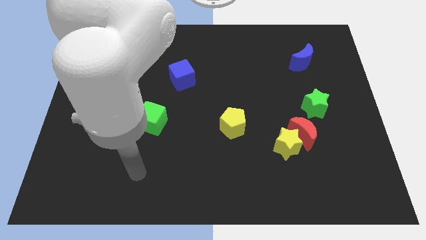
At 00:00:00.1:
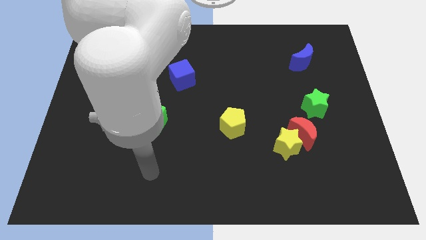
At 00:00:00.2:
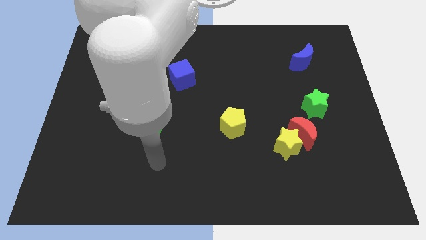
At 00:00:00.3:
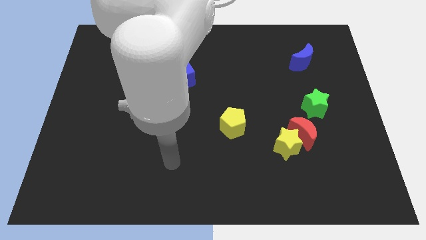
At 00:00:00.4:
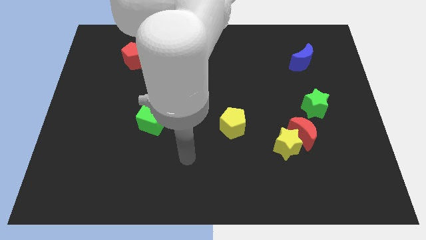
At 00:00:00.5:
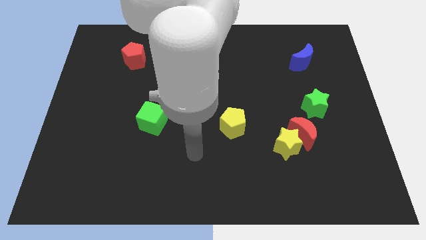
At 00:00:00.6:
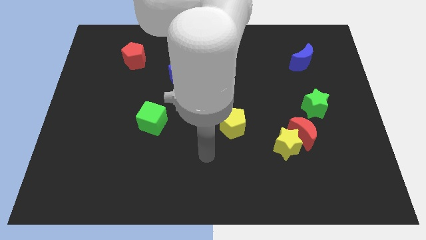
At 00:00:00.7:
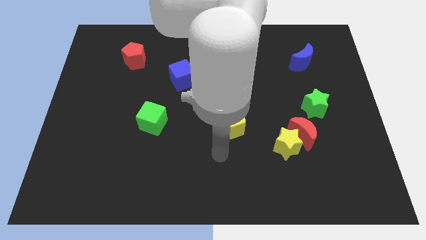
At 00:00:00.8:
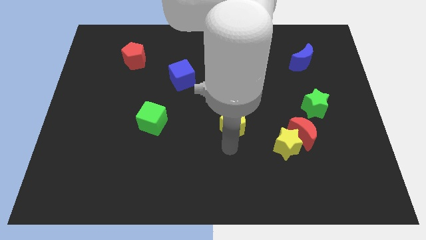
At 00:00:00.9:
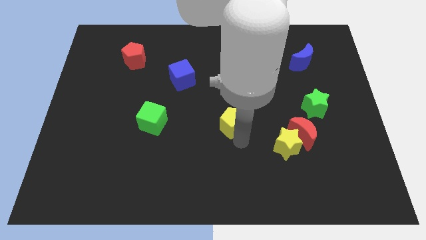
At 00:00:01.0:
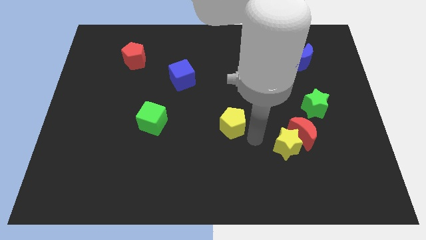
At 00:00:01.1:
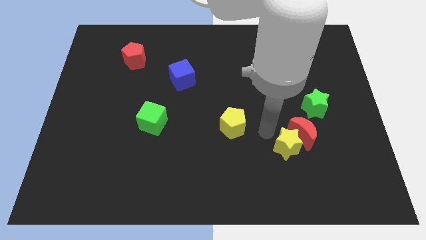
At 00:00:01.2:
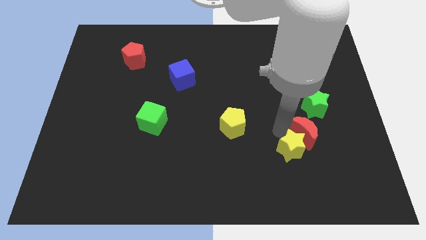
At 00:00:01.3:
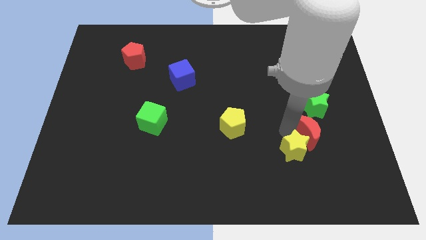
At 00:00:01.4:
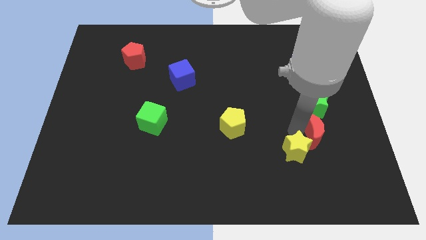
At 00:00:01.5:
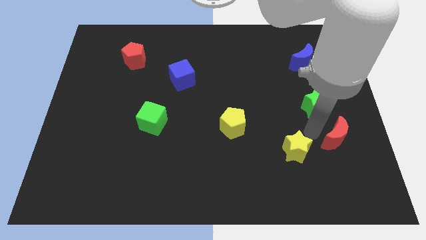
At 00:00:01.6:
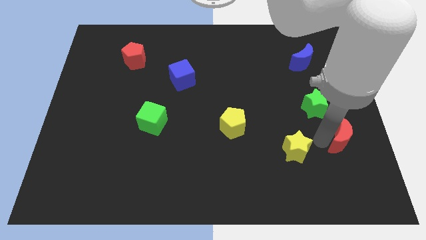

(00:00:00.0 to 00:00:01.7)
separate the yellow star from the red moon

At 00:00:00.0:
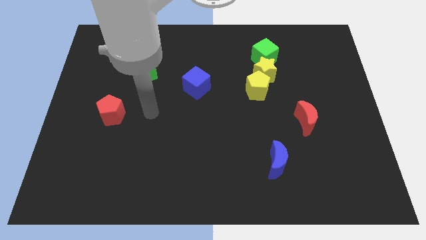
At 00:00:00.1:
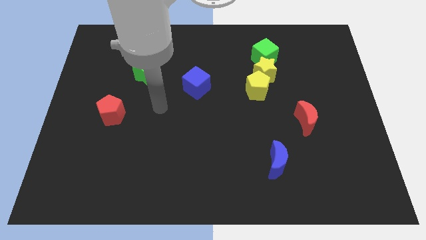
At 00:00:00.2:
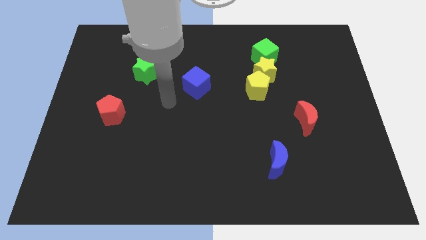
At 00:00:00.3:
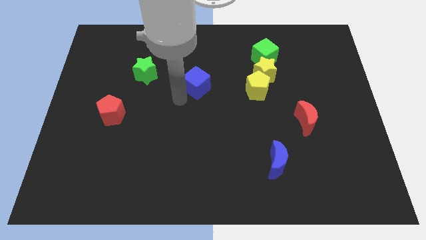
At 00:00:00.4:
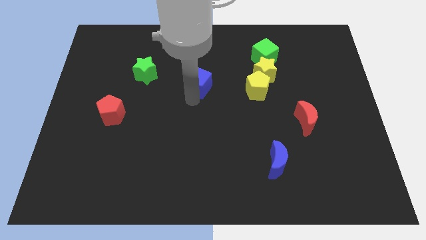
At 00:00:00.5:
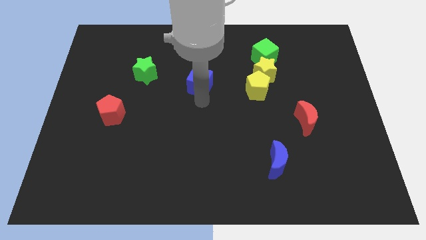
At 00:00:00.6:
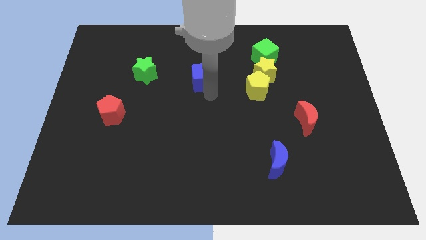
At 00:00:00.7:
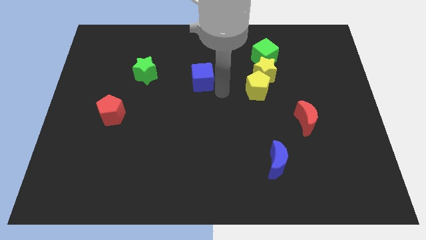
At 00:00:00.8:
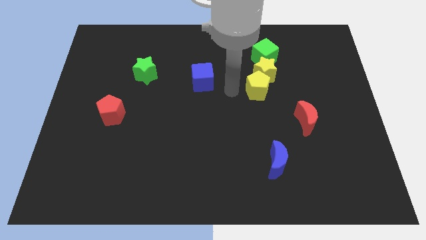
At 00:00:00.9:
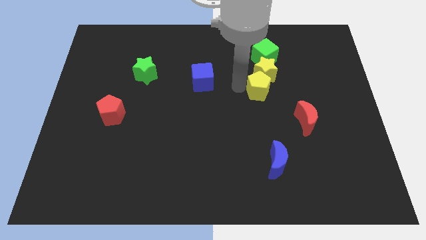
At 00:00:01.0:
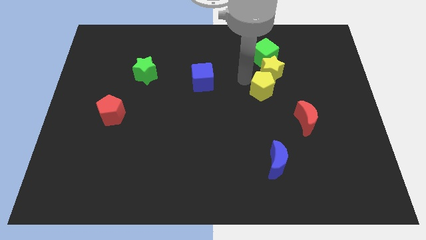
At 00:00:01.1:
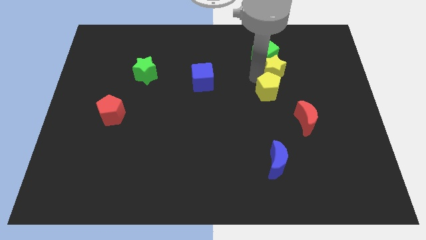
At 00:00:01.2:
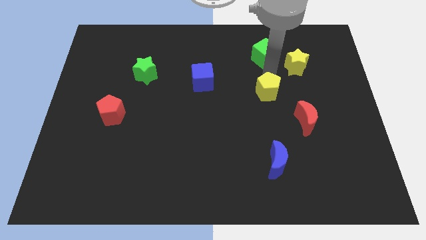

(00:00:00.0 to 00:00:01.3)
move the yellow pentagon away from the yellow star

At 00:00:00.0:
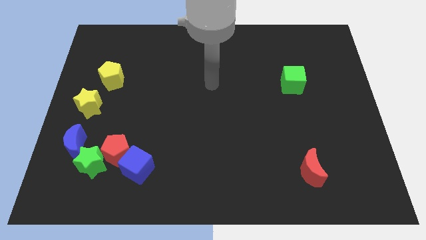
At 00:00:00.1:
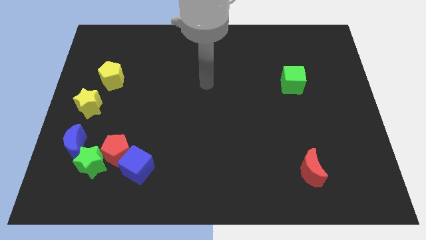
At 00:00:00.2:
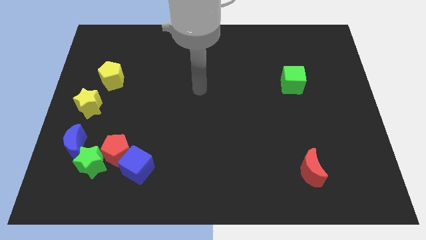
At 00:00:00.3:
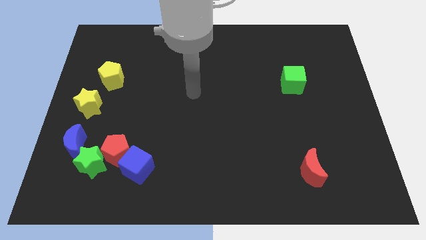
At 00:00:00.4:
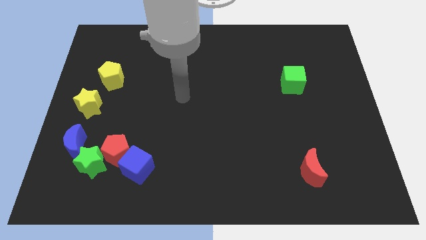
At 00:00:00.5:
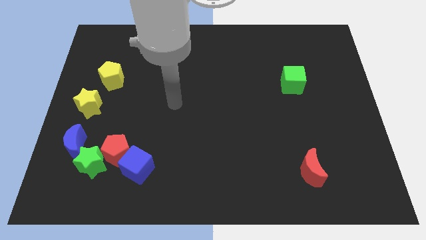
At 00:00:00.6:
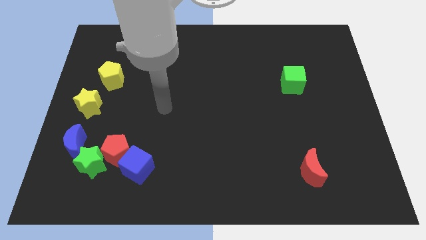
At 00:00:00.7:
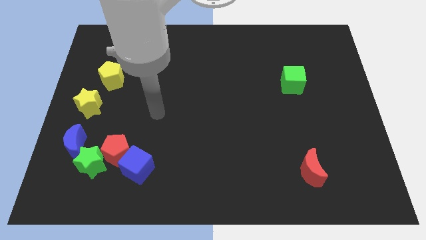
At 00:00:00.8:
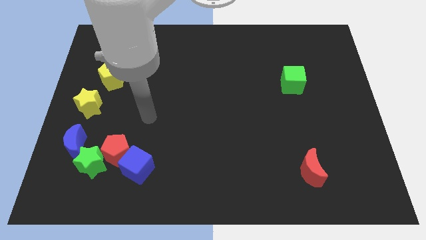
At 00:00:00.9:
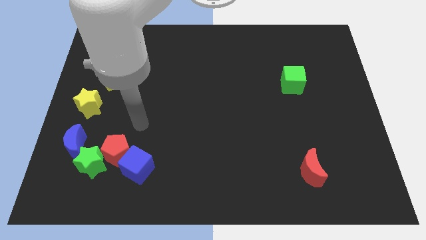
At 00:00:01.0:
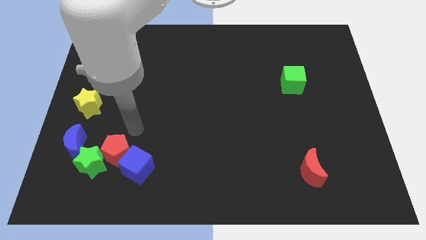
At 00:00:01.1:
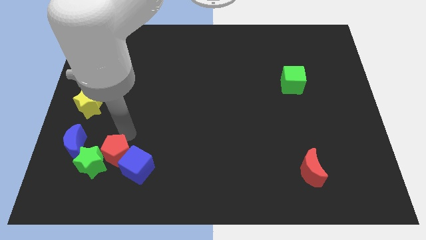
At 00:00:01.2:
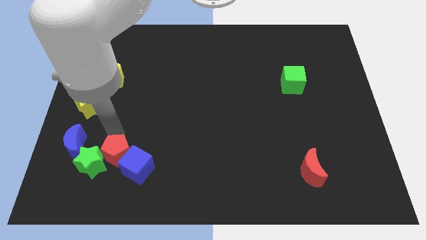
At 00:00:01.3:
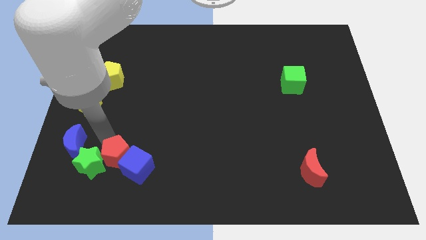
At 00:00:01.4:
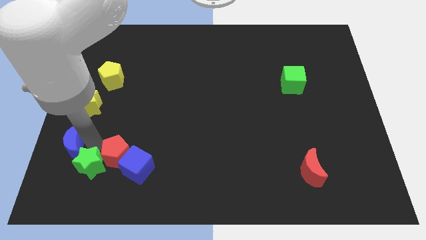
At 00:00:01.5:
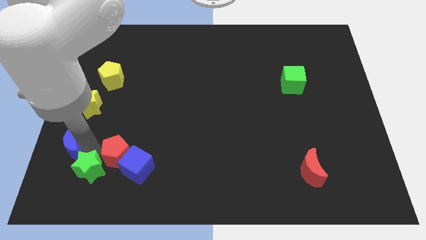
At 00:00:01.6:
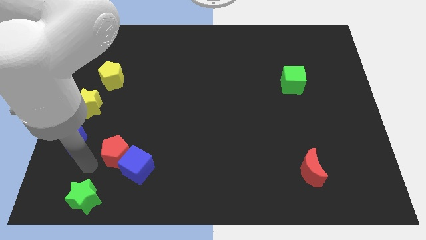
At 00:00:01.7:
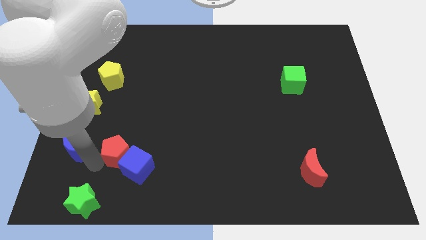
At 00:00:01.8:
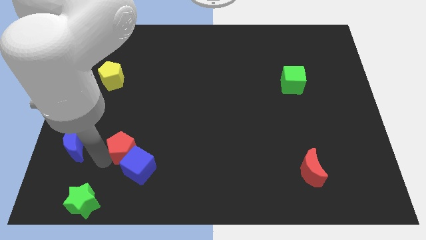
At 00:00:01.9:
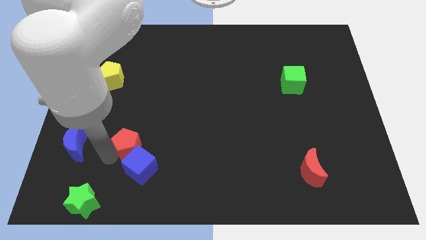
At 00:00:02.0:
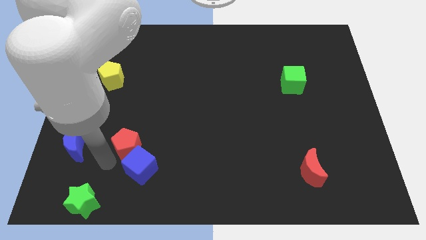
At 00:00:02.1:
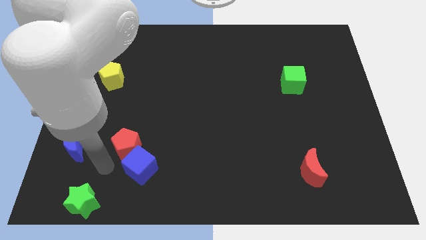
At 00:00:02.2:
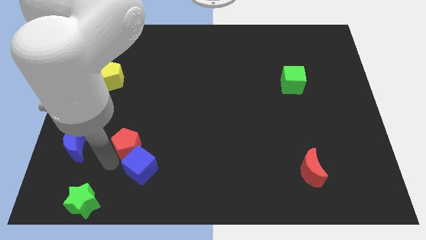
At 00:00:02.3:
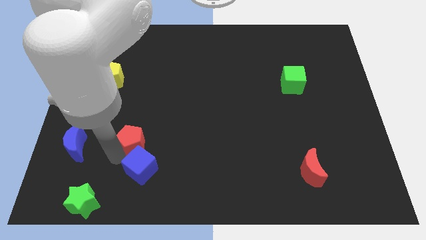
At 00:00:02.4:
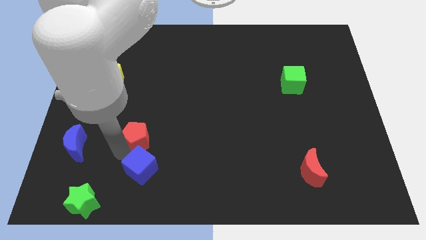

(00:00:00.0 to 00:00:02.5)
pull the red pentagon apart from the blue cube, green star, and blue moon

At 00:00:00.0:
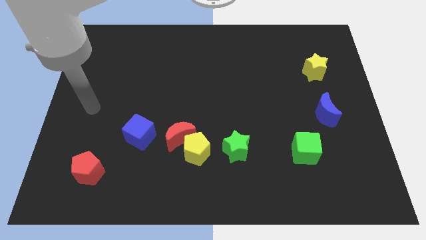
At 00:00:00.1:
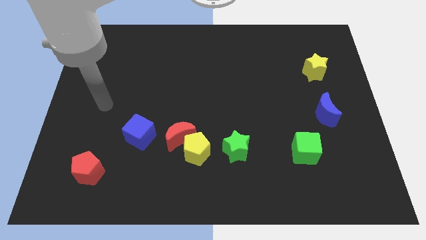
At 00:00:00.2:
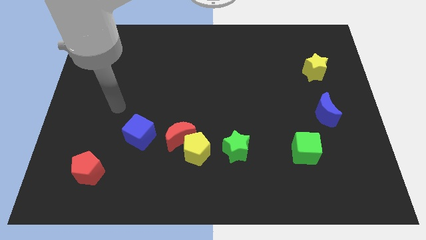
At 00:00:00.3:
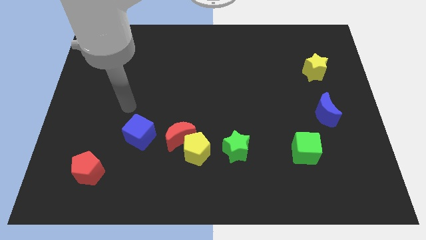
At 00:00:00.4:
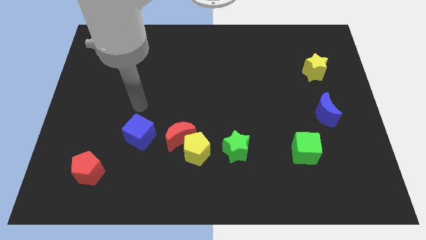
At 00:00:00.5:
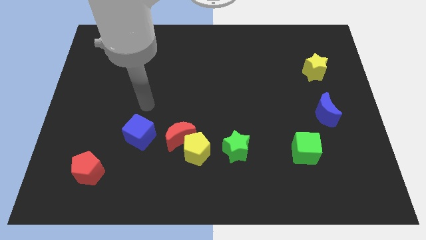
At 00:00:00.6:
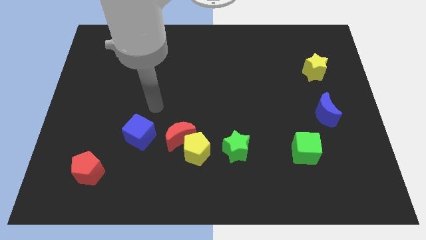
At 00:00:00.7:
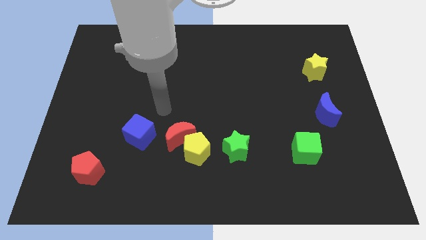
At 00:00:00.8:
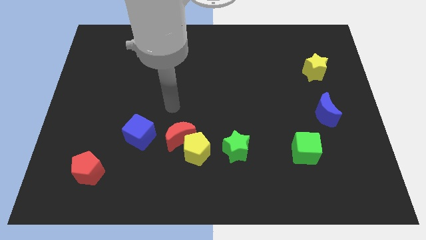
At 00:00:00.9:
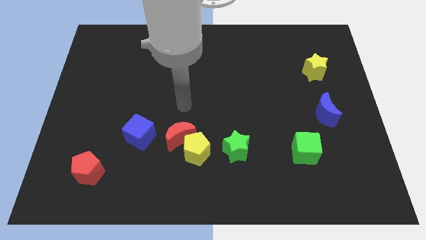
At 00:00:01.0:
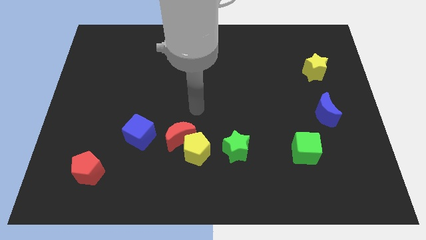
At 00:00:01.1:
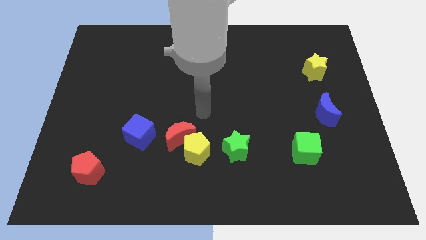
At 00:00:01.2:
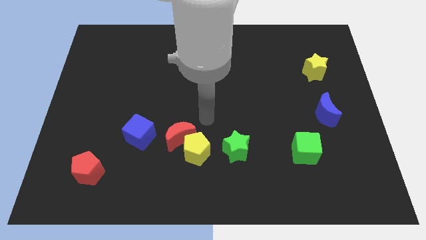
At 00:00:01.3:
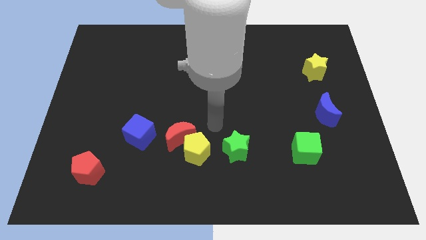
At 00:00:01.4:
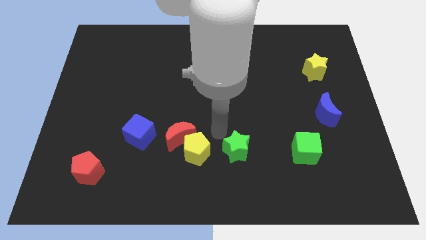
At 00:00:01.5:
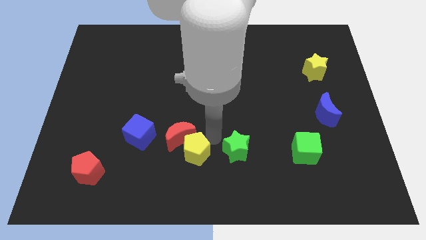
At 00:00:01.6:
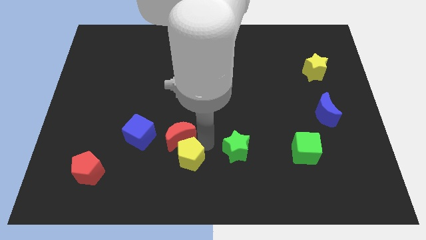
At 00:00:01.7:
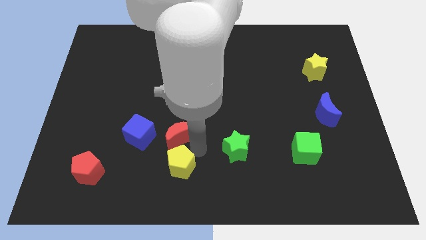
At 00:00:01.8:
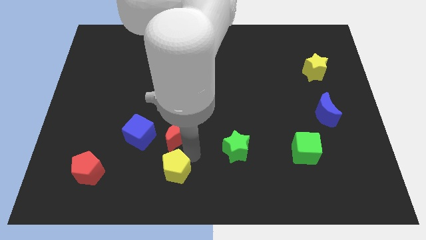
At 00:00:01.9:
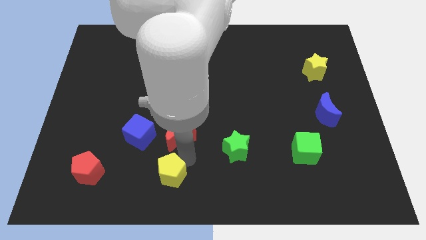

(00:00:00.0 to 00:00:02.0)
move the yellow pentagon away from the red moon and green star

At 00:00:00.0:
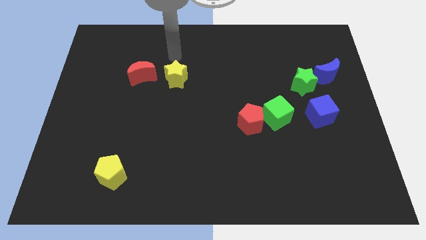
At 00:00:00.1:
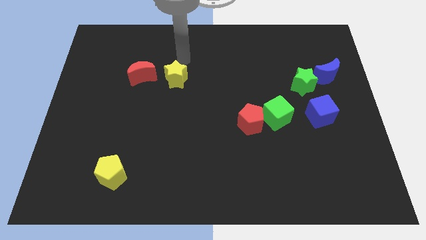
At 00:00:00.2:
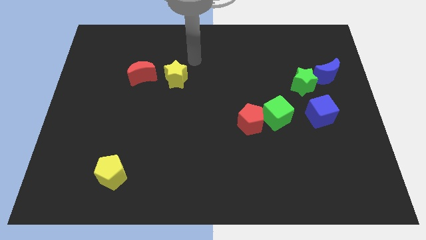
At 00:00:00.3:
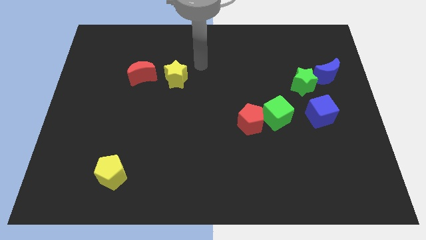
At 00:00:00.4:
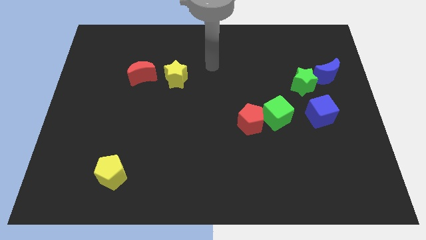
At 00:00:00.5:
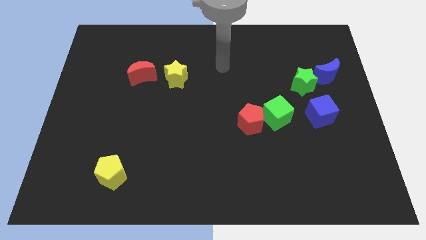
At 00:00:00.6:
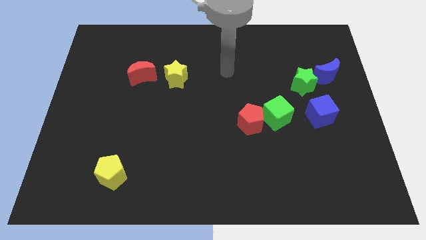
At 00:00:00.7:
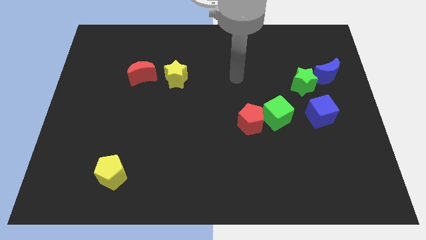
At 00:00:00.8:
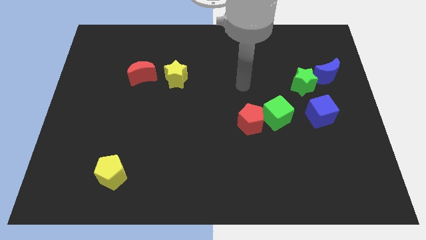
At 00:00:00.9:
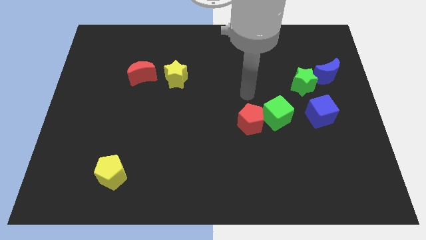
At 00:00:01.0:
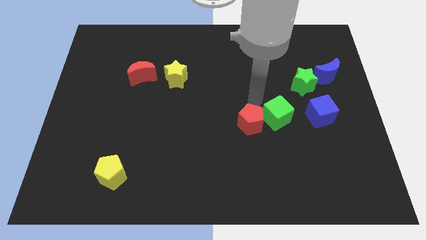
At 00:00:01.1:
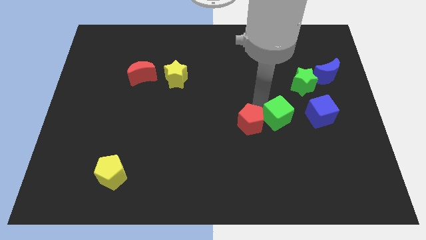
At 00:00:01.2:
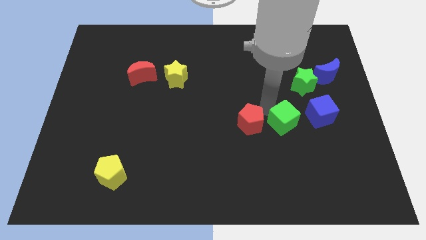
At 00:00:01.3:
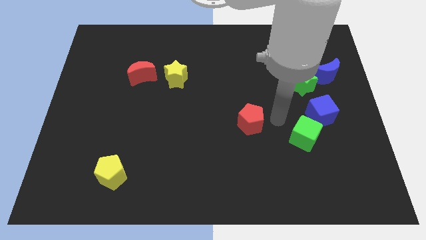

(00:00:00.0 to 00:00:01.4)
pull the red pentagon apart from the green cube

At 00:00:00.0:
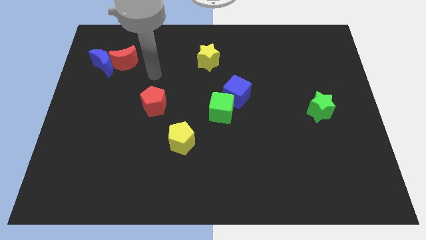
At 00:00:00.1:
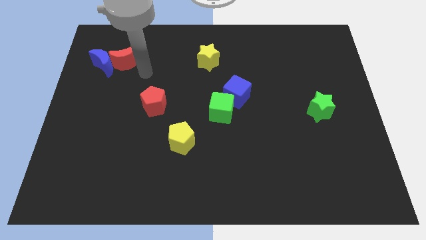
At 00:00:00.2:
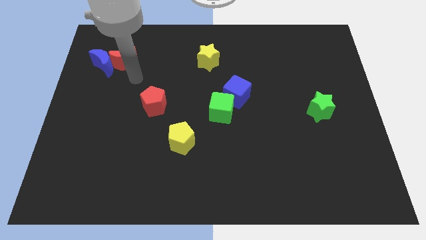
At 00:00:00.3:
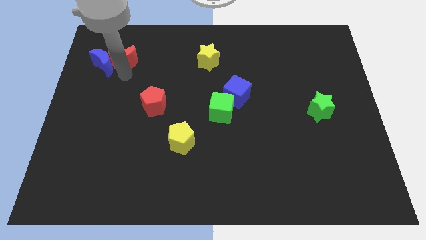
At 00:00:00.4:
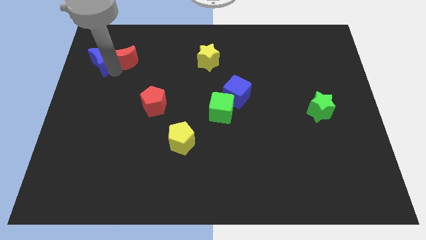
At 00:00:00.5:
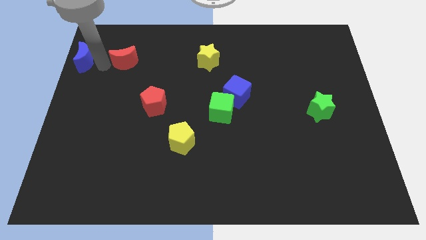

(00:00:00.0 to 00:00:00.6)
separate the red moon from the blue moon
